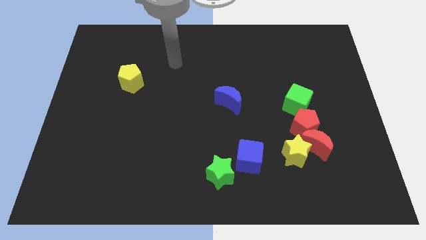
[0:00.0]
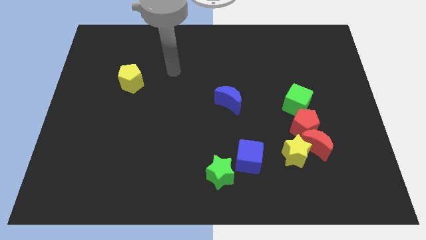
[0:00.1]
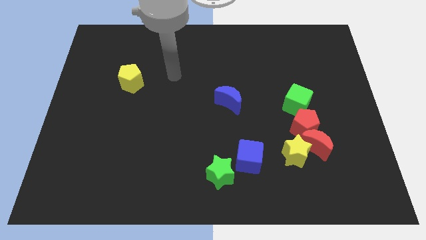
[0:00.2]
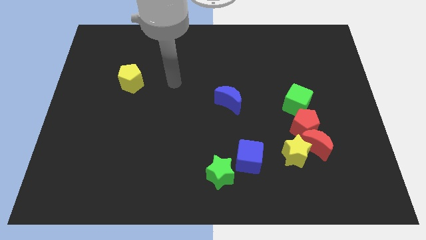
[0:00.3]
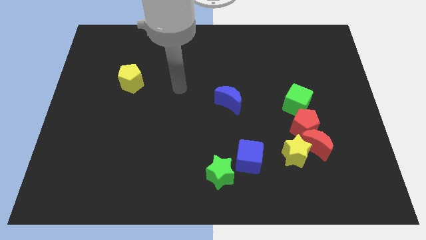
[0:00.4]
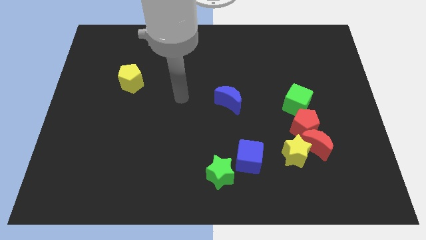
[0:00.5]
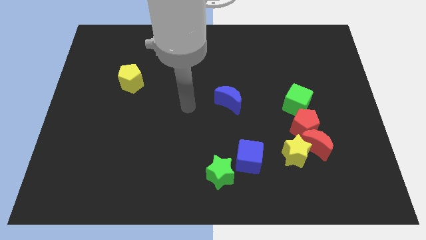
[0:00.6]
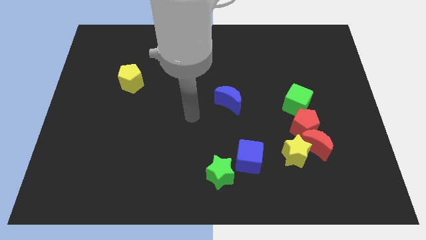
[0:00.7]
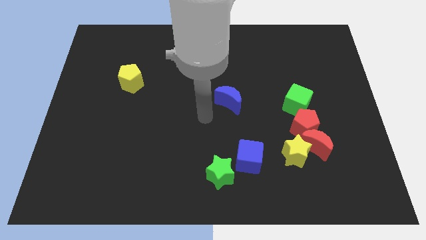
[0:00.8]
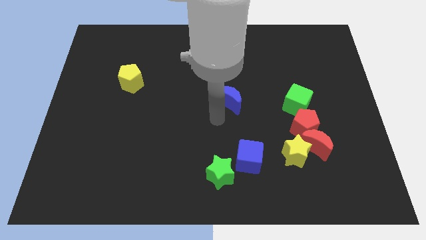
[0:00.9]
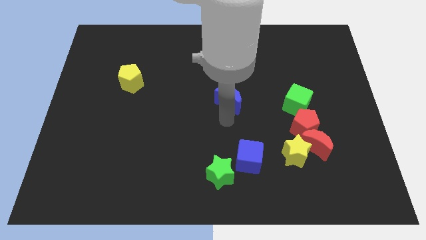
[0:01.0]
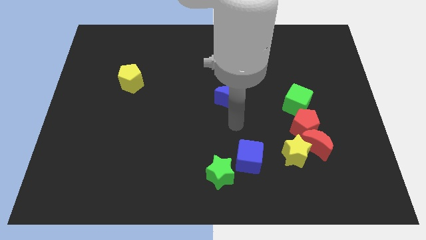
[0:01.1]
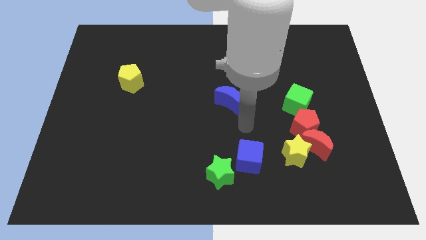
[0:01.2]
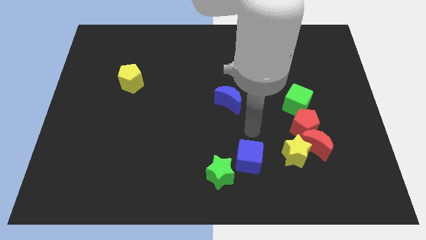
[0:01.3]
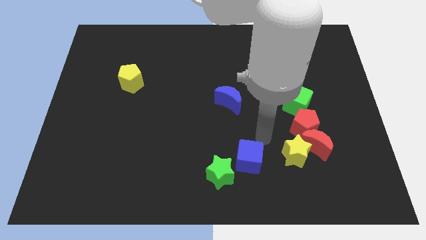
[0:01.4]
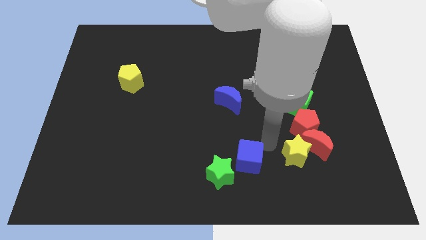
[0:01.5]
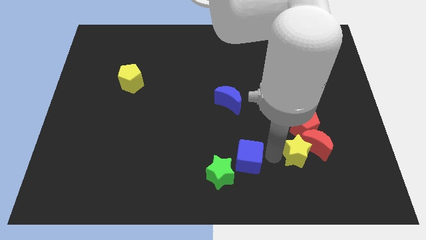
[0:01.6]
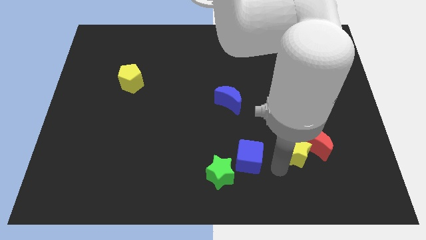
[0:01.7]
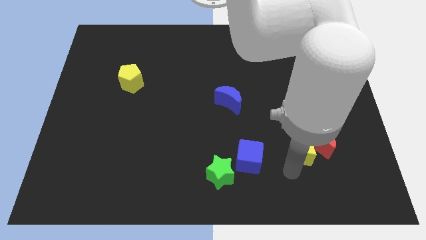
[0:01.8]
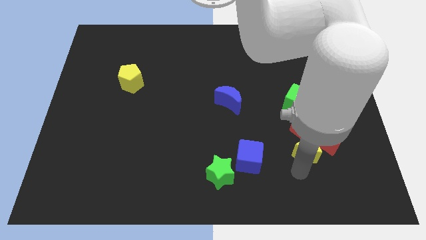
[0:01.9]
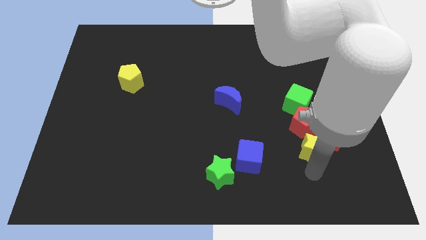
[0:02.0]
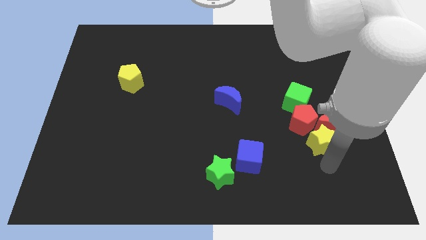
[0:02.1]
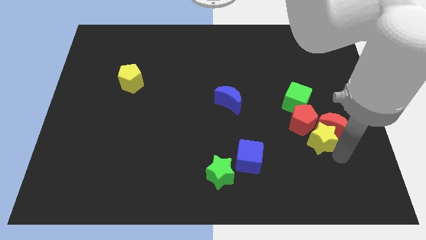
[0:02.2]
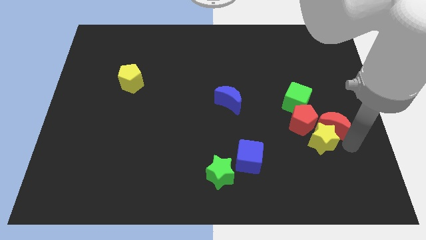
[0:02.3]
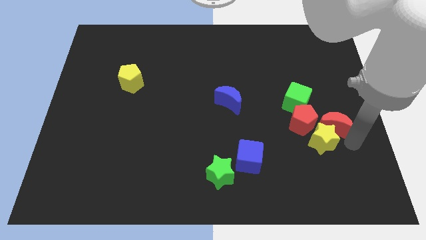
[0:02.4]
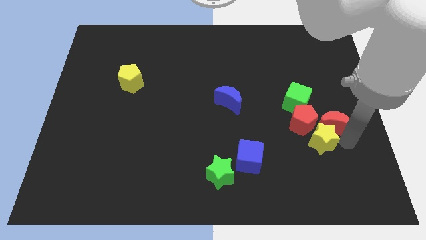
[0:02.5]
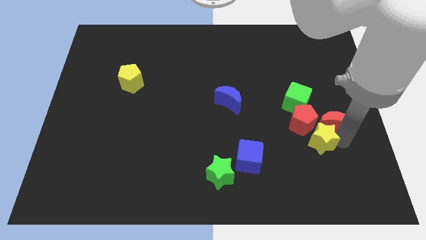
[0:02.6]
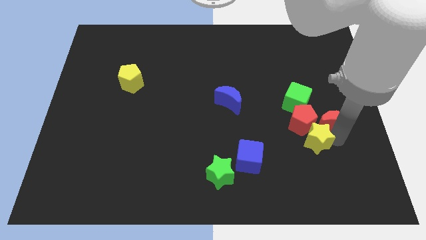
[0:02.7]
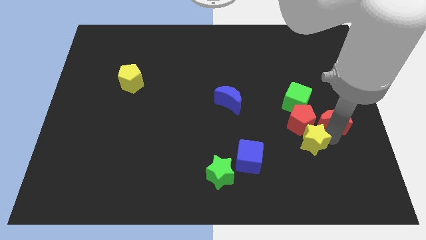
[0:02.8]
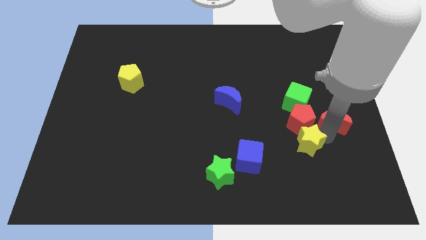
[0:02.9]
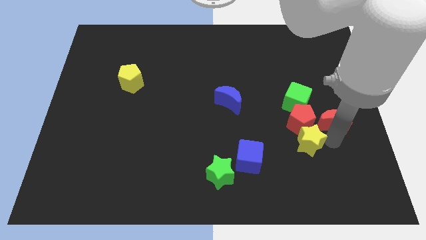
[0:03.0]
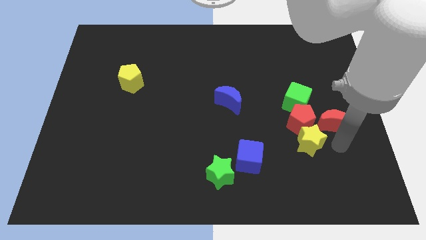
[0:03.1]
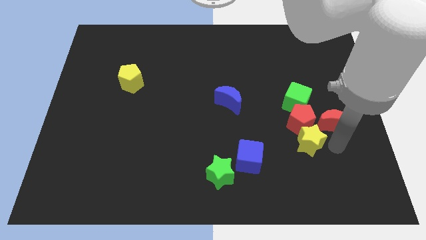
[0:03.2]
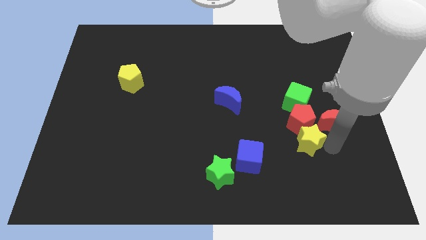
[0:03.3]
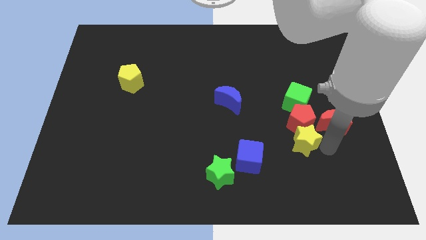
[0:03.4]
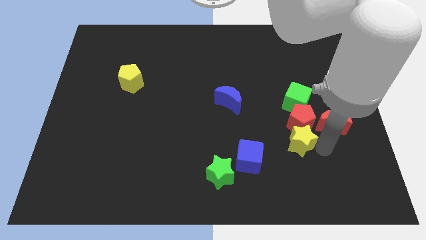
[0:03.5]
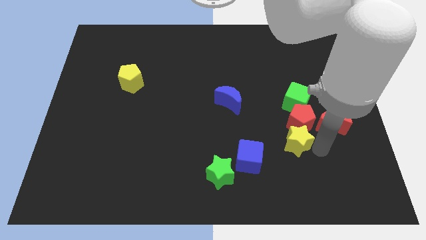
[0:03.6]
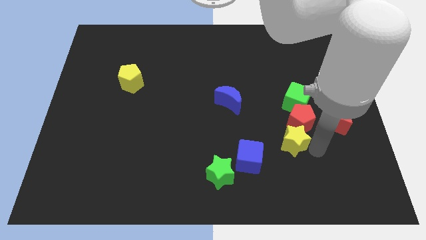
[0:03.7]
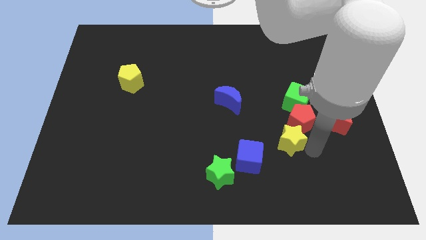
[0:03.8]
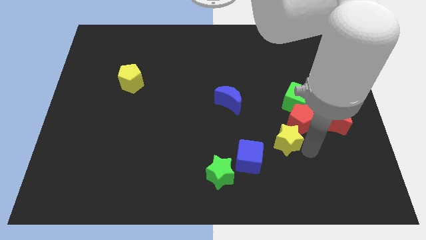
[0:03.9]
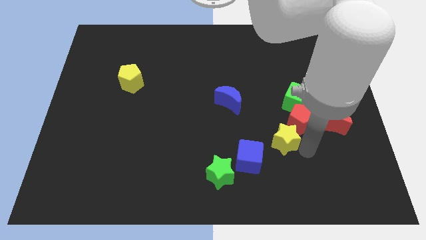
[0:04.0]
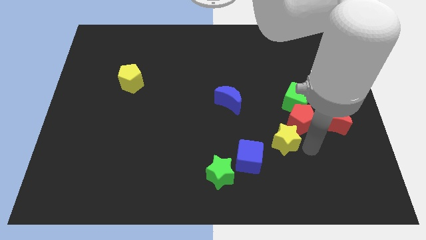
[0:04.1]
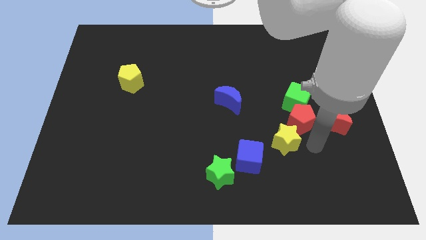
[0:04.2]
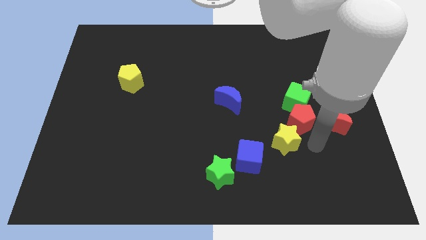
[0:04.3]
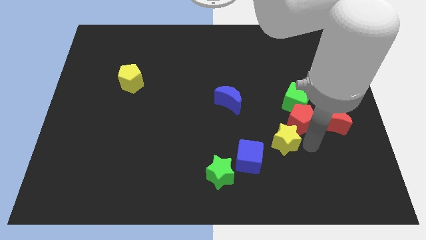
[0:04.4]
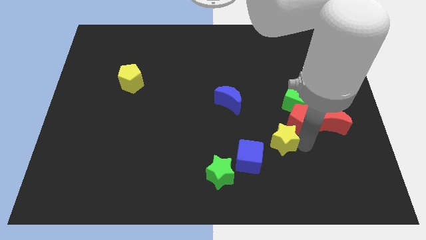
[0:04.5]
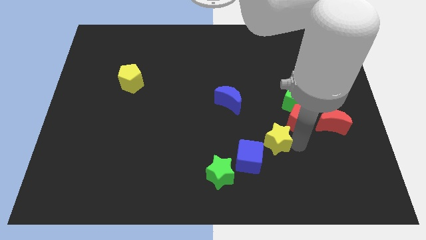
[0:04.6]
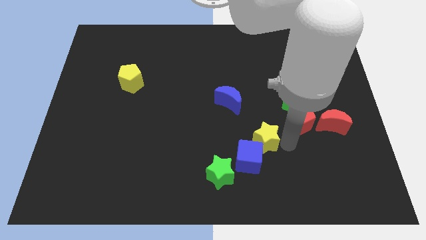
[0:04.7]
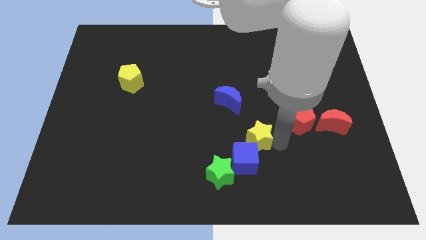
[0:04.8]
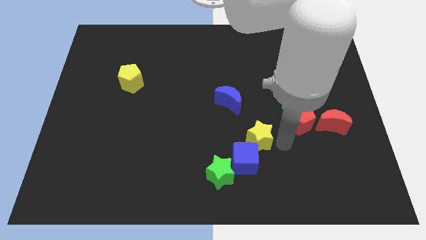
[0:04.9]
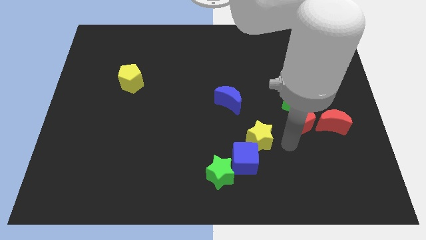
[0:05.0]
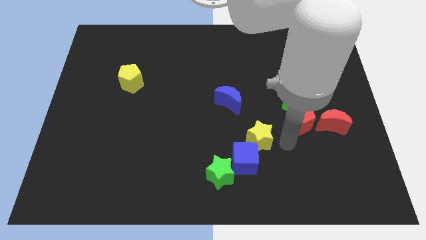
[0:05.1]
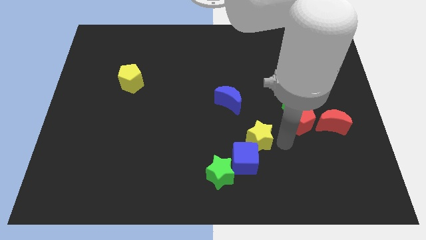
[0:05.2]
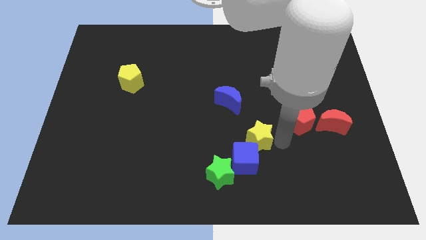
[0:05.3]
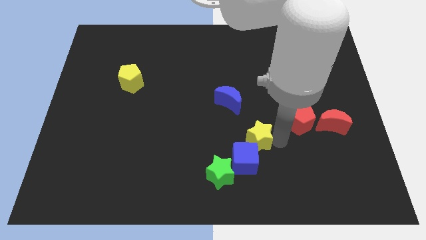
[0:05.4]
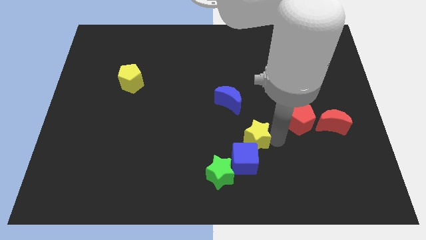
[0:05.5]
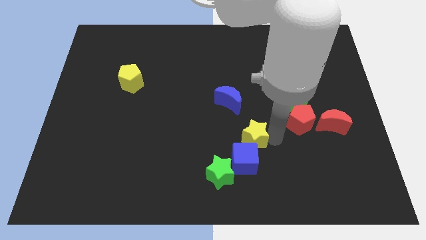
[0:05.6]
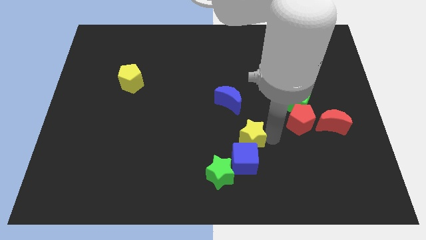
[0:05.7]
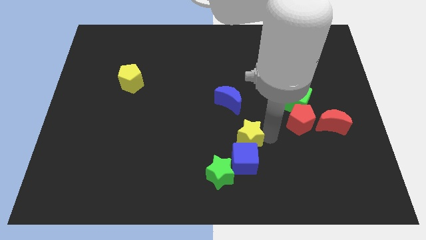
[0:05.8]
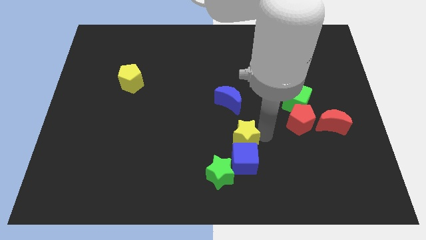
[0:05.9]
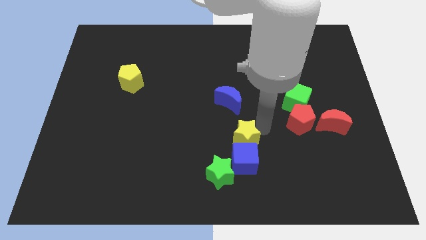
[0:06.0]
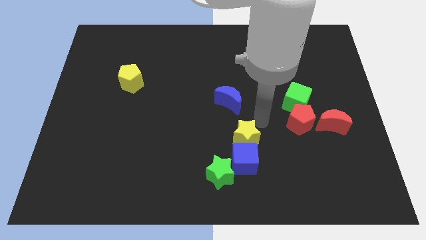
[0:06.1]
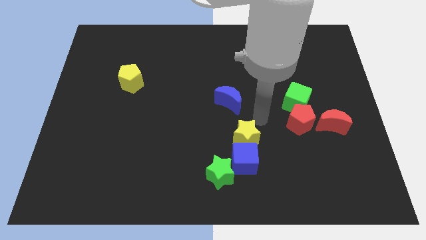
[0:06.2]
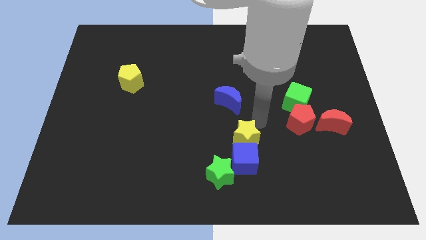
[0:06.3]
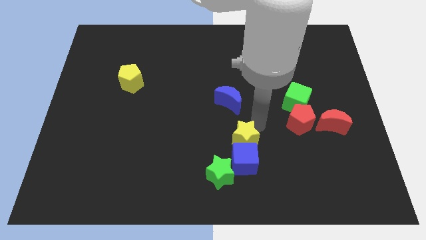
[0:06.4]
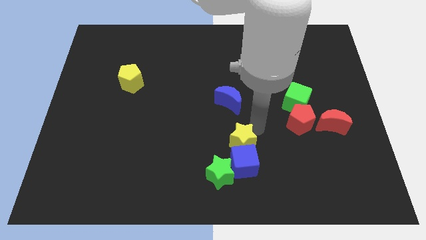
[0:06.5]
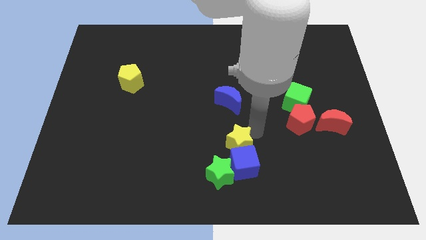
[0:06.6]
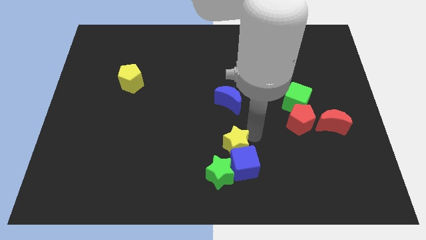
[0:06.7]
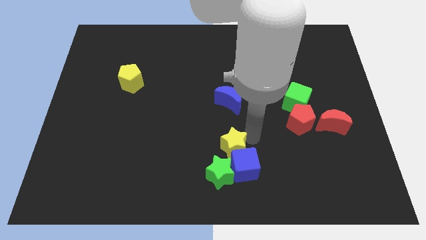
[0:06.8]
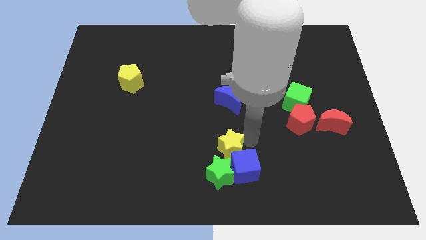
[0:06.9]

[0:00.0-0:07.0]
move the yellow star next to the green star

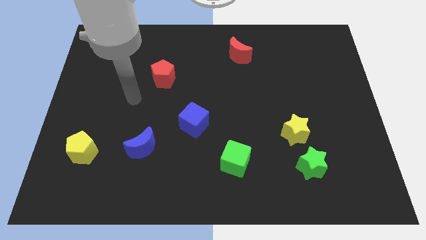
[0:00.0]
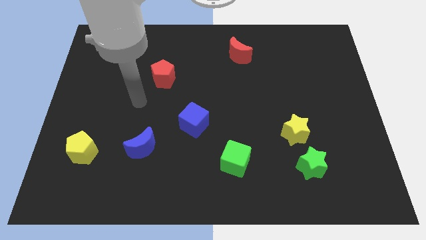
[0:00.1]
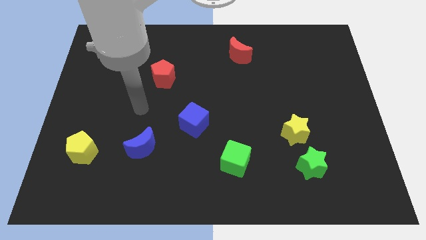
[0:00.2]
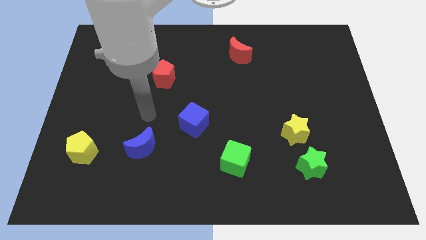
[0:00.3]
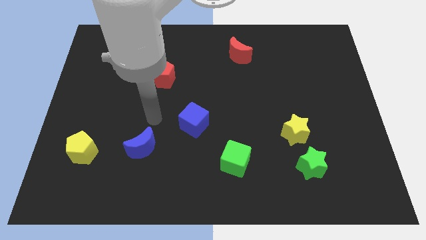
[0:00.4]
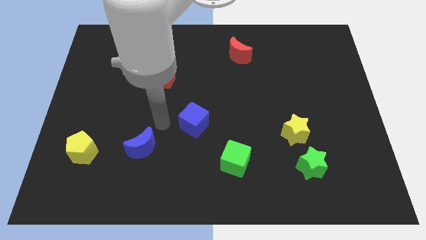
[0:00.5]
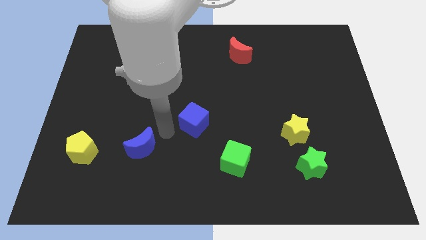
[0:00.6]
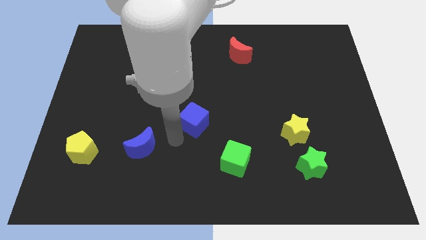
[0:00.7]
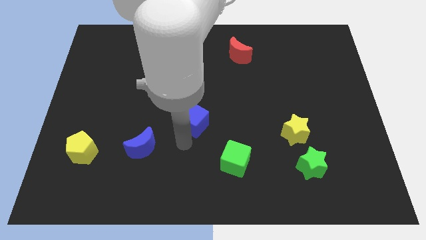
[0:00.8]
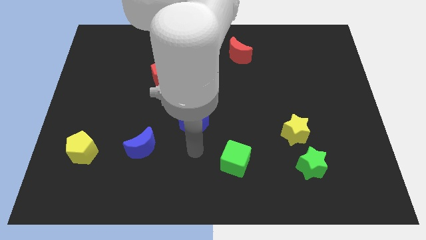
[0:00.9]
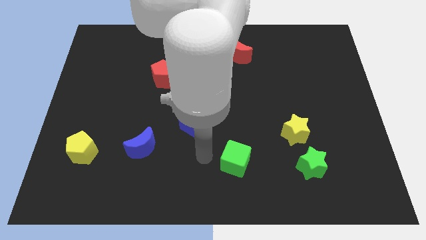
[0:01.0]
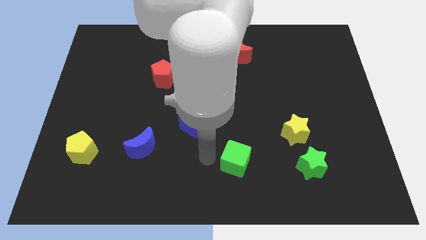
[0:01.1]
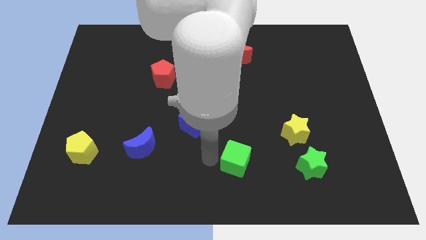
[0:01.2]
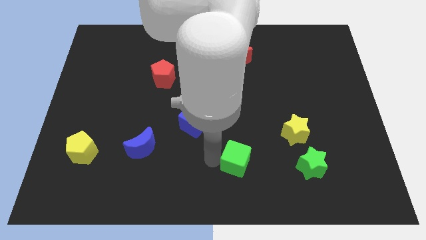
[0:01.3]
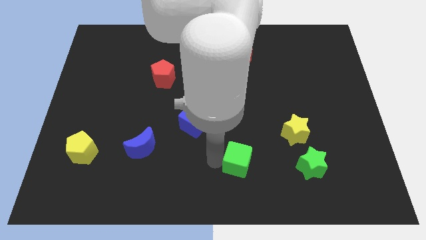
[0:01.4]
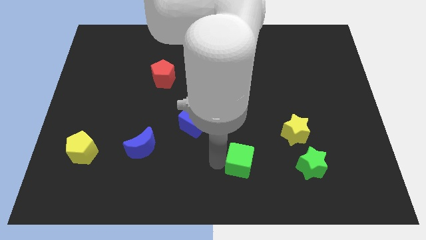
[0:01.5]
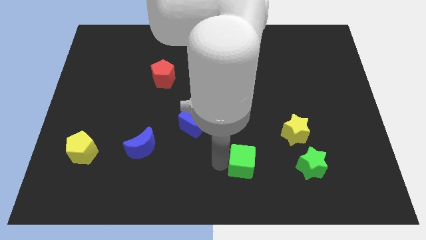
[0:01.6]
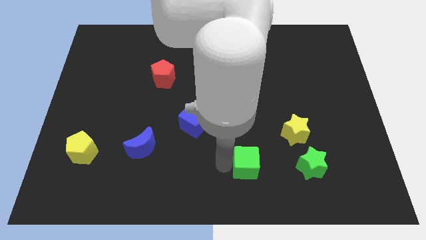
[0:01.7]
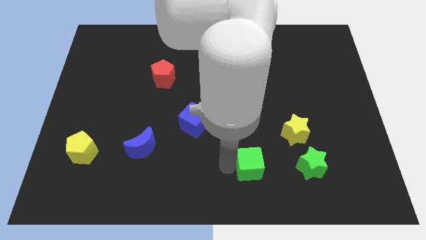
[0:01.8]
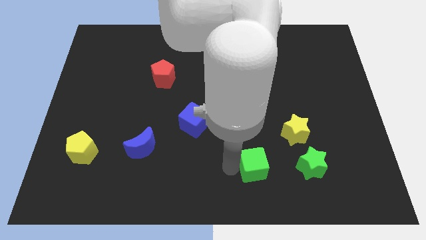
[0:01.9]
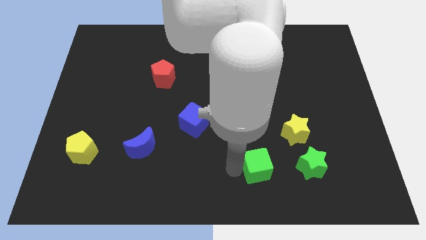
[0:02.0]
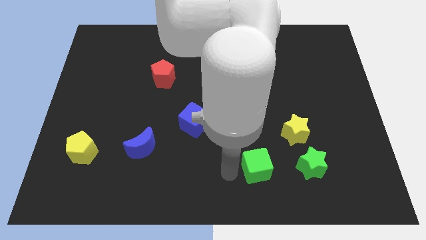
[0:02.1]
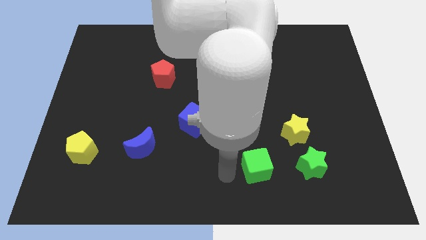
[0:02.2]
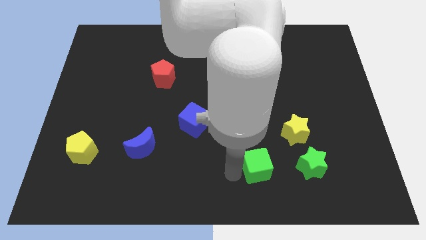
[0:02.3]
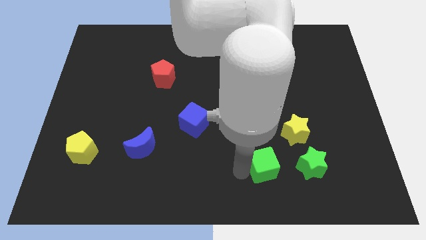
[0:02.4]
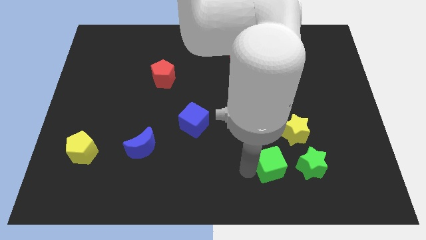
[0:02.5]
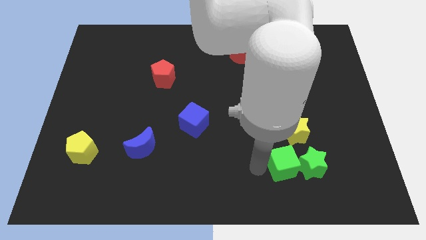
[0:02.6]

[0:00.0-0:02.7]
slide the green cube close to the green star
